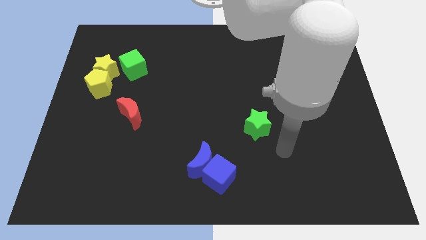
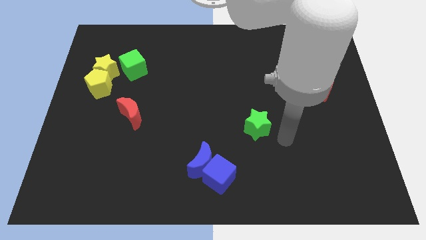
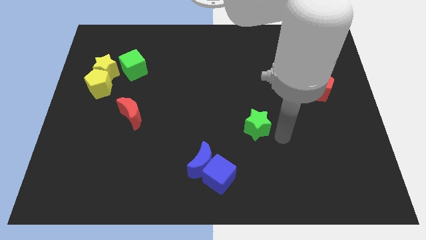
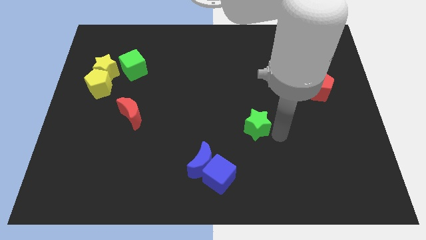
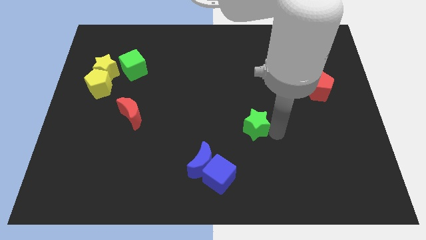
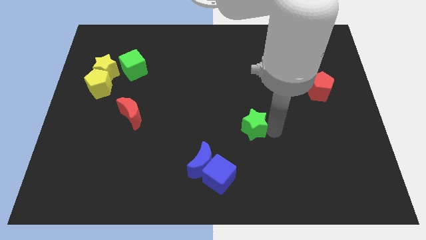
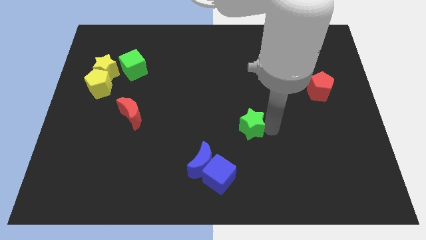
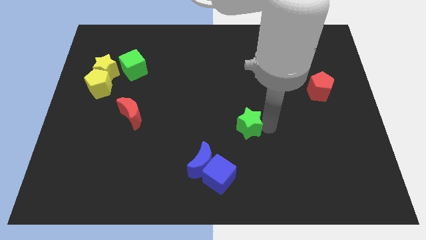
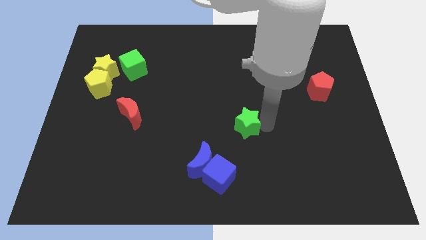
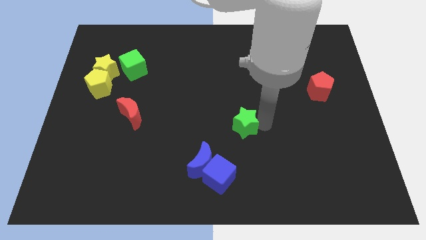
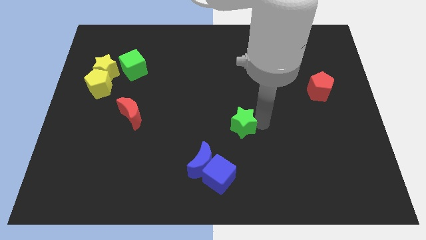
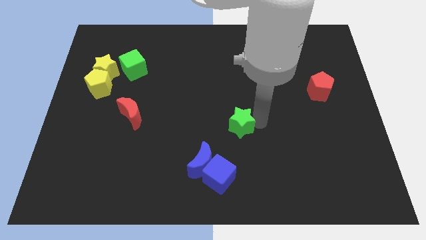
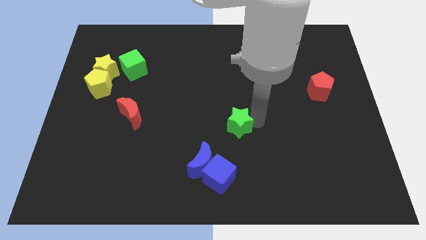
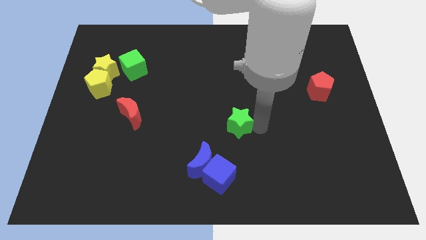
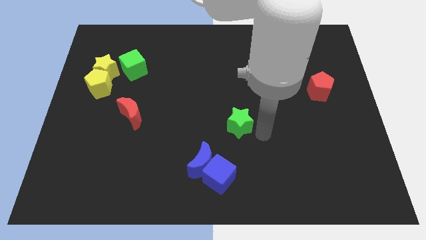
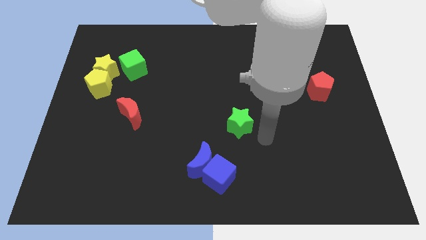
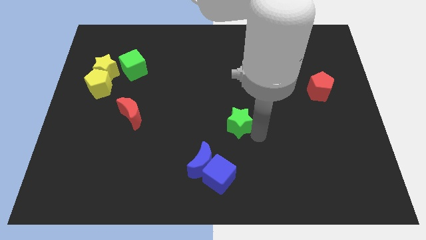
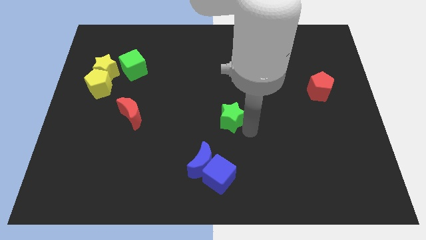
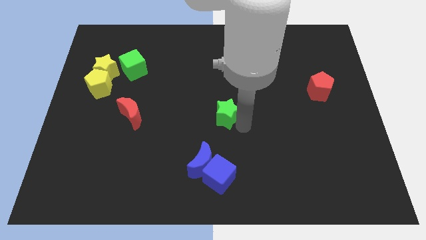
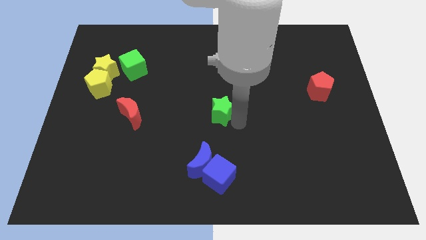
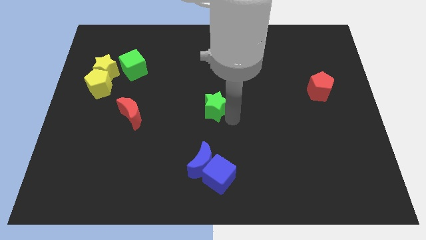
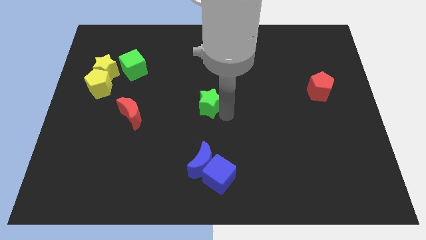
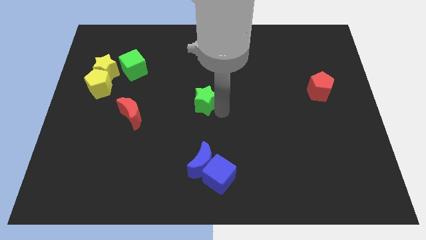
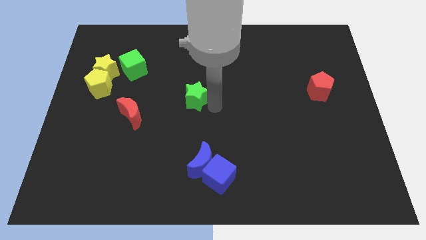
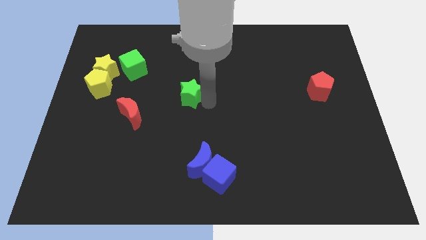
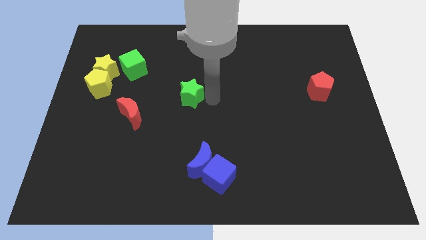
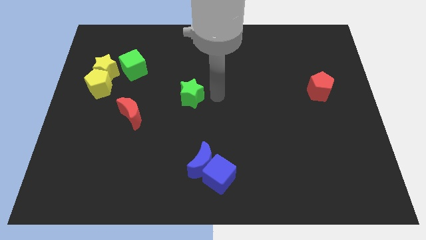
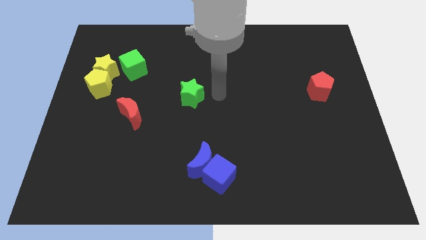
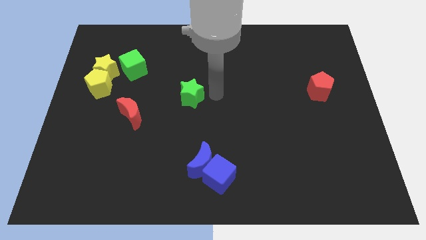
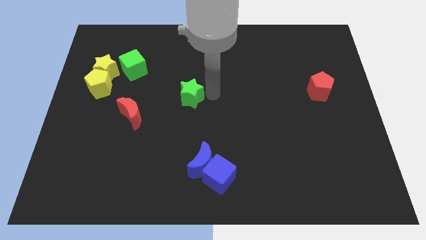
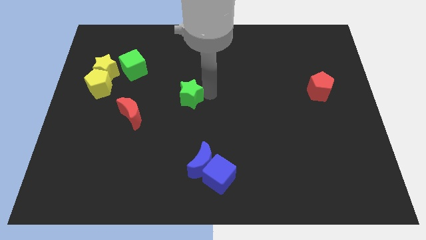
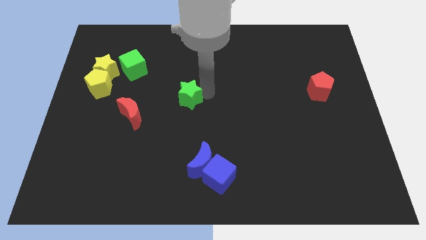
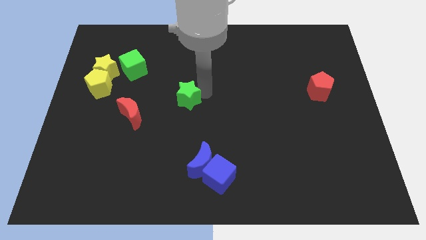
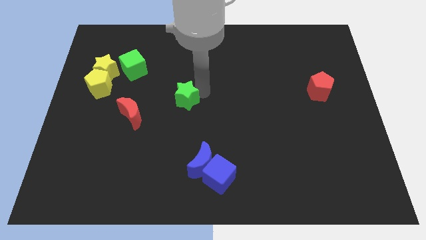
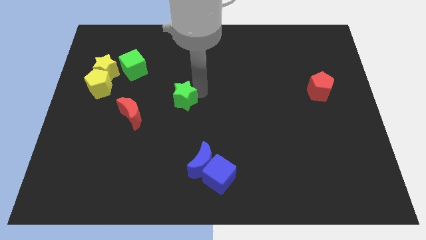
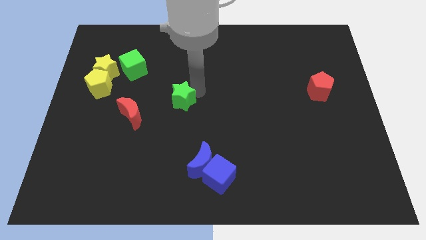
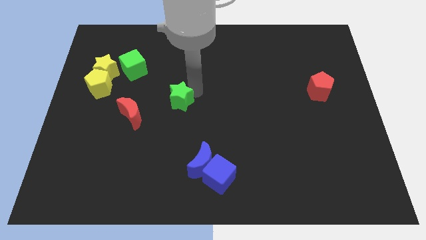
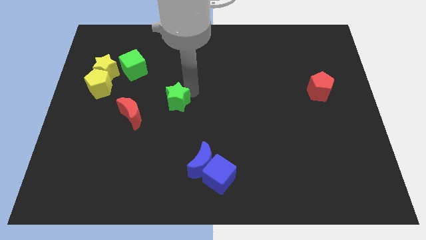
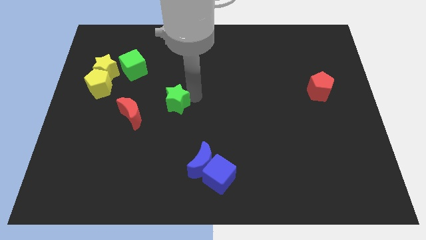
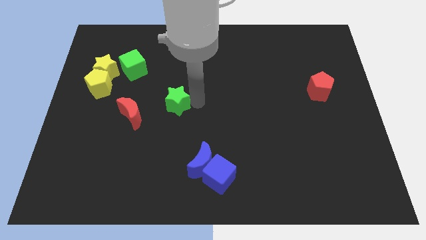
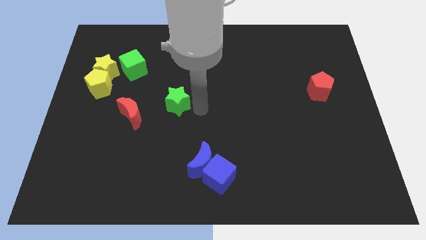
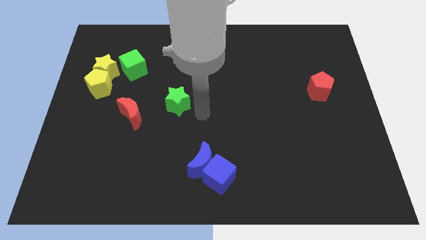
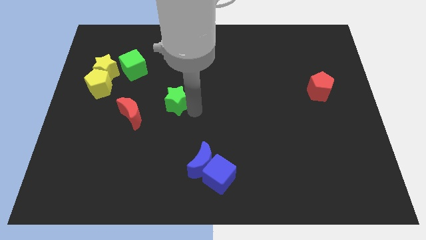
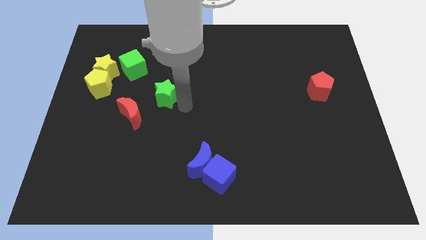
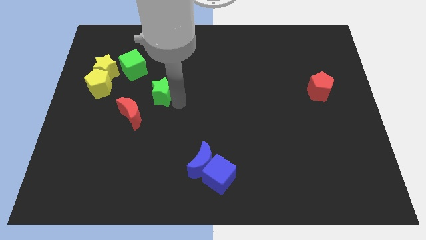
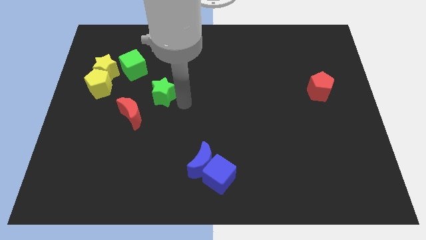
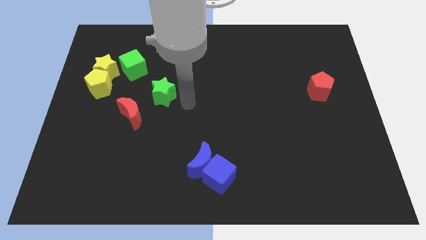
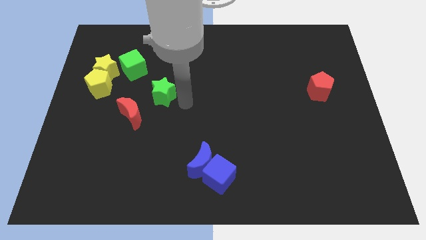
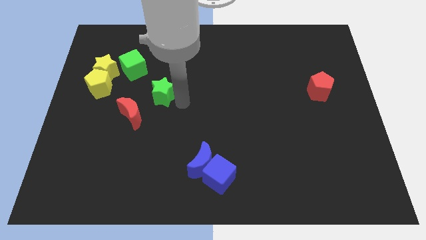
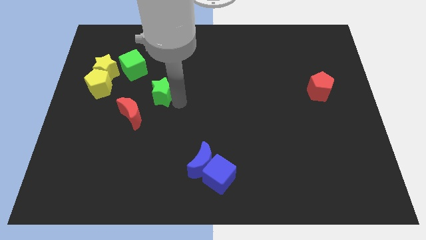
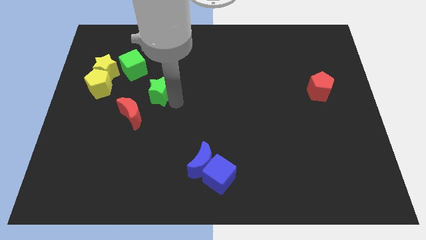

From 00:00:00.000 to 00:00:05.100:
push the green star right of the yellow pentagon

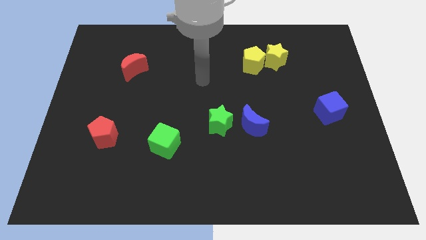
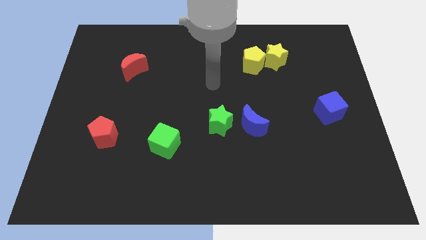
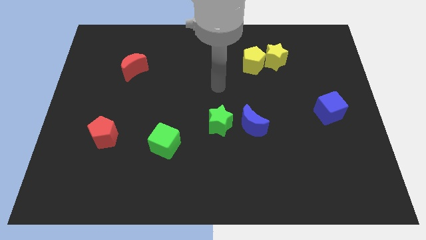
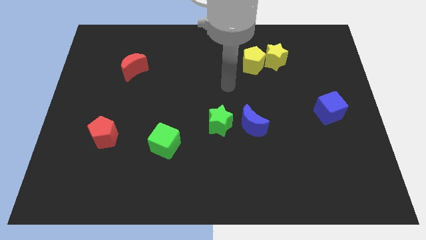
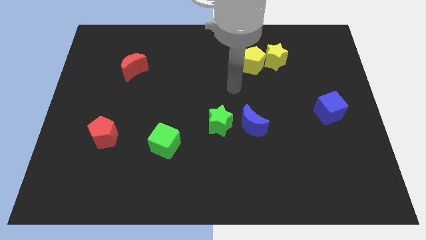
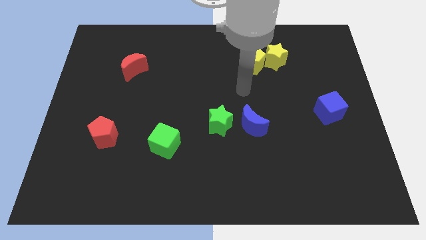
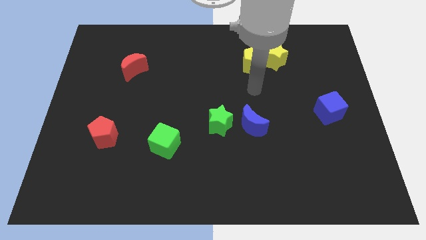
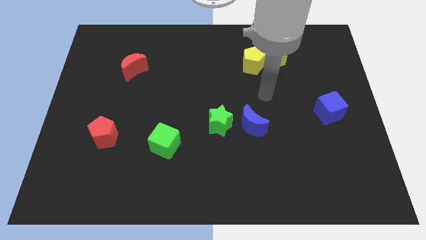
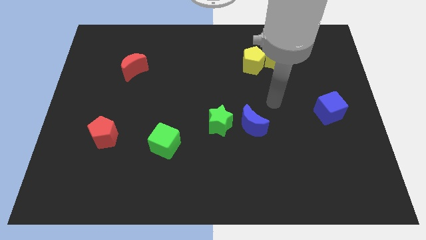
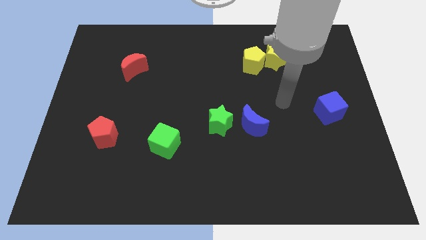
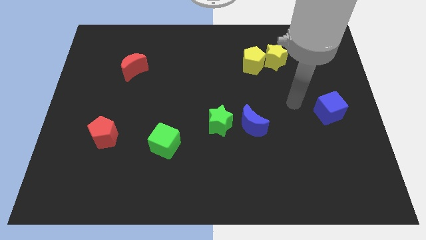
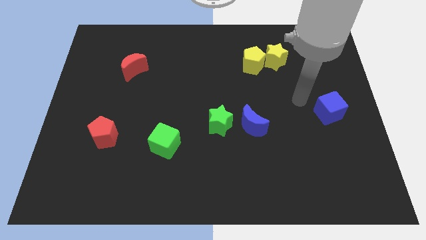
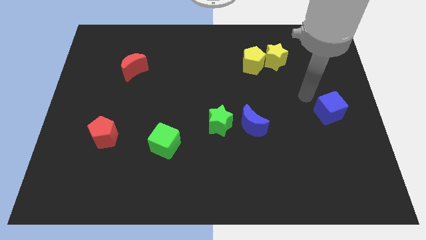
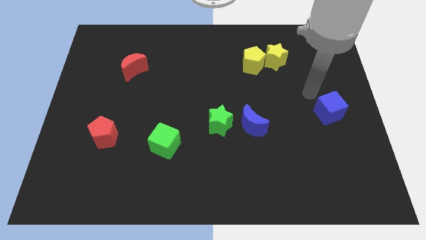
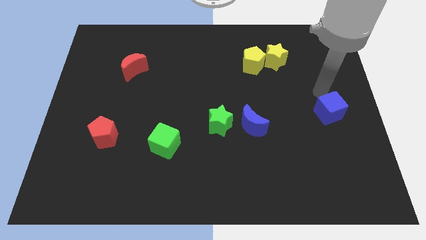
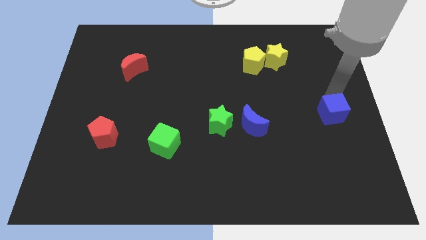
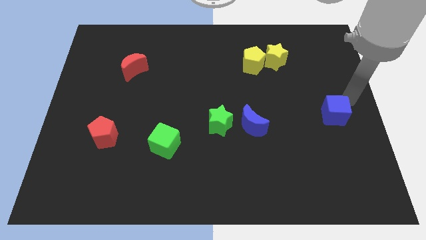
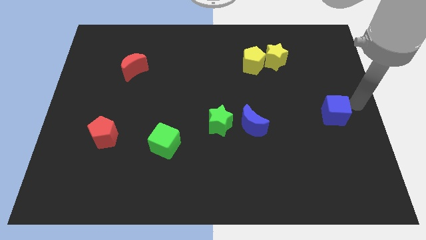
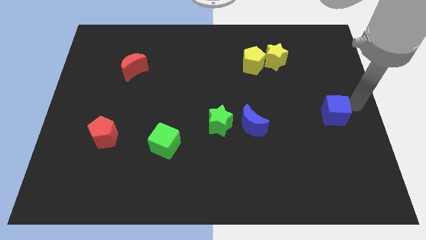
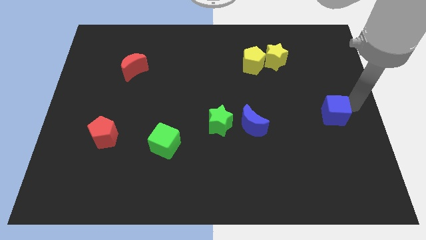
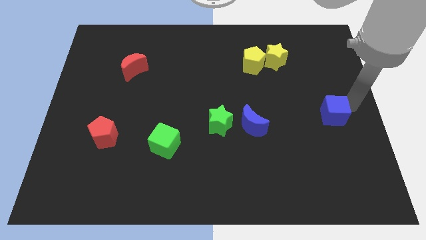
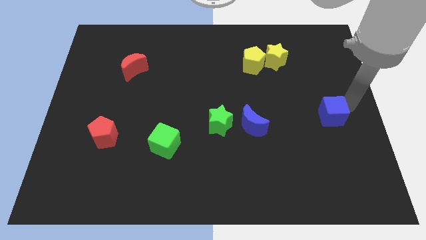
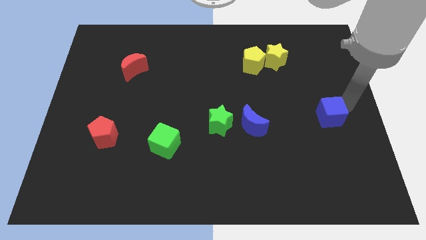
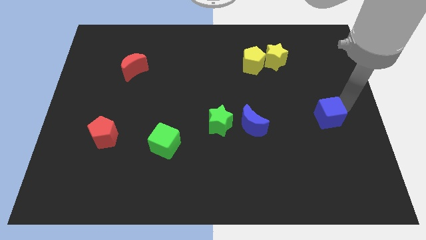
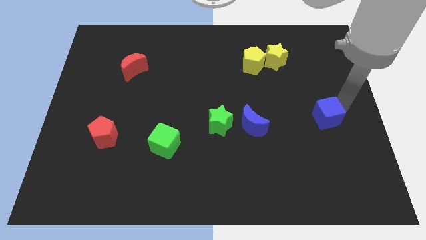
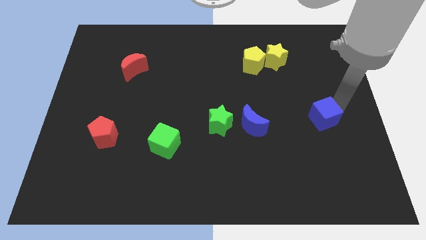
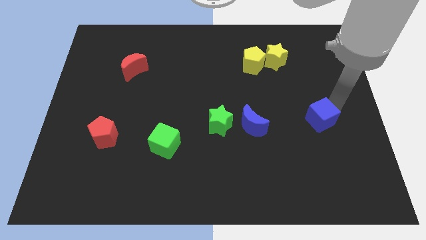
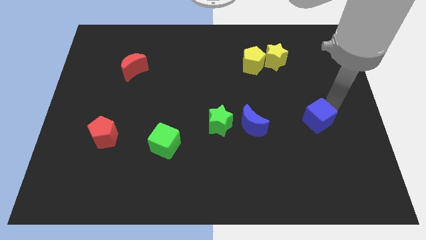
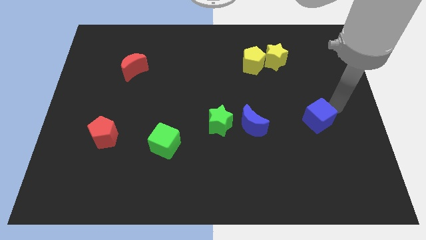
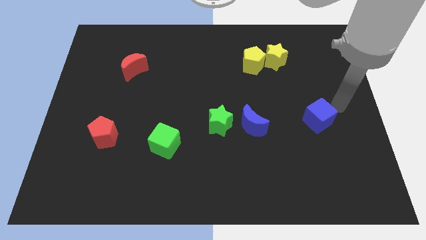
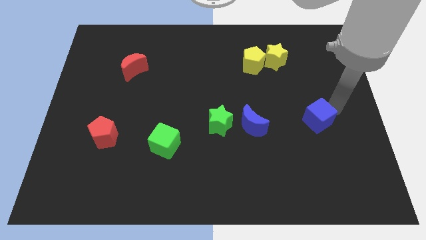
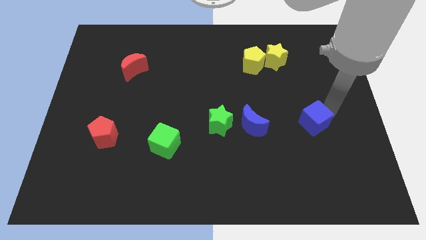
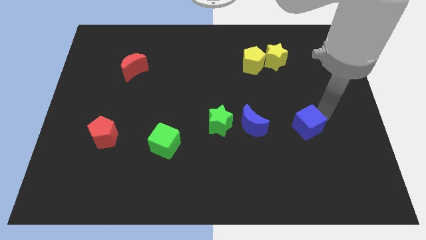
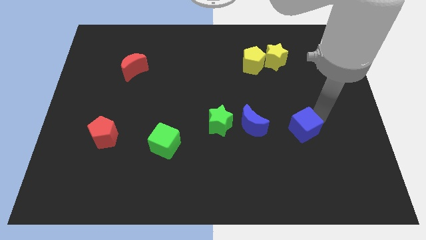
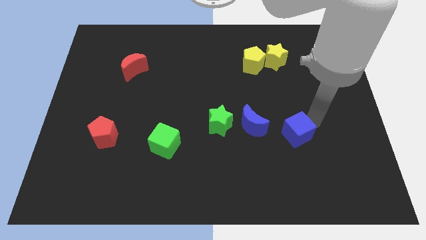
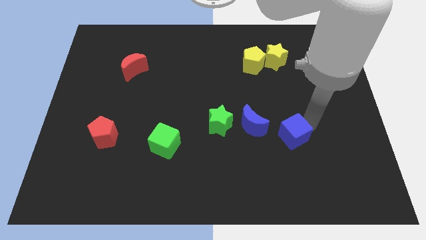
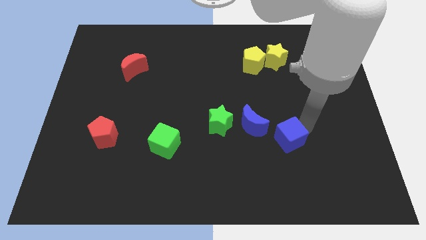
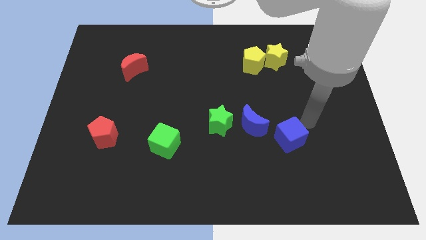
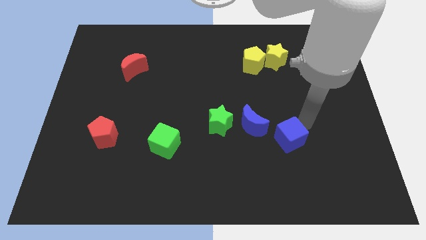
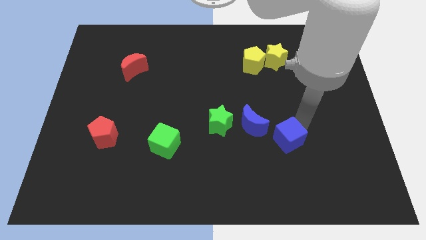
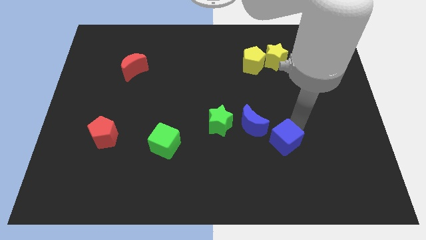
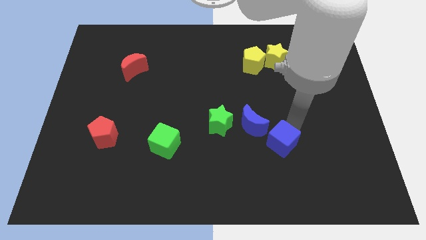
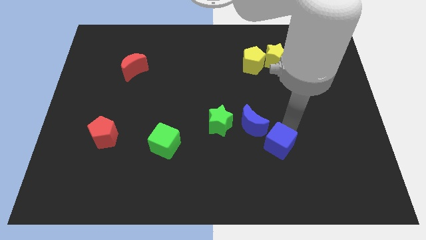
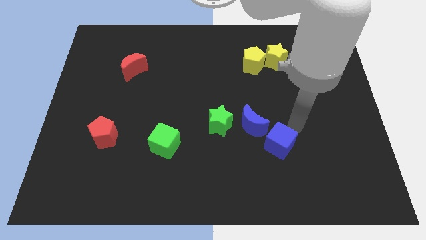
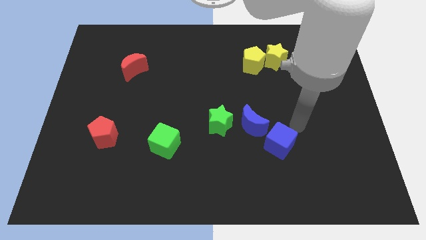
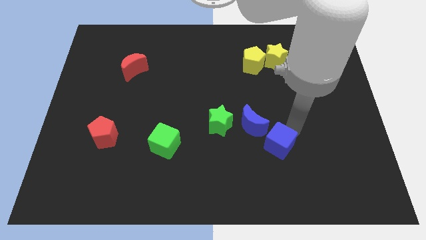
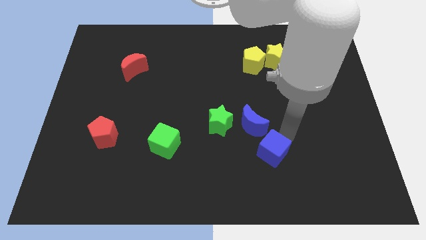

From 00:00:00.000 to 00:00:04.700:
push the blue cube to the bottom side of the blue moon
